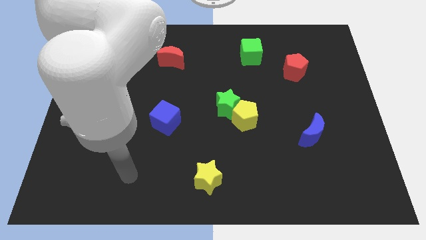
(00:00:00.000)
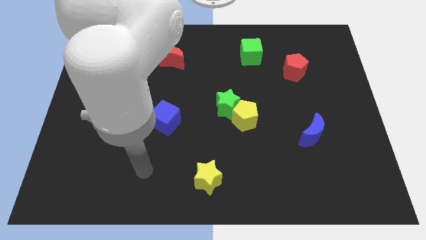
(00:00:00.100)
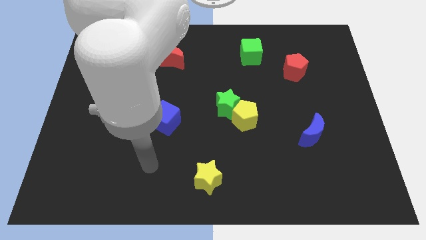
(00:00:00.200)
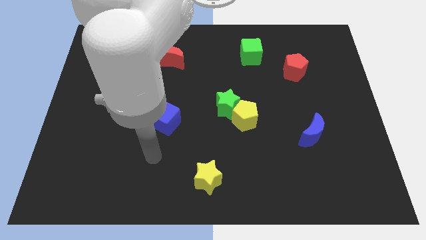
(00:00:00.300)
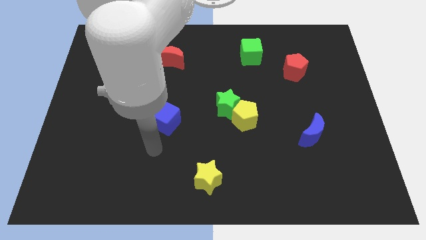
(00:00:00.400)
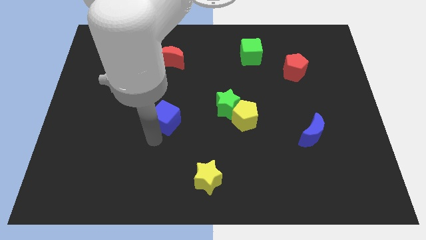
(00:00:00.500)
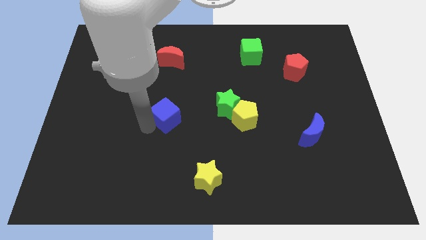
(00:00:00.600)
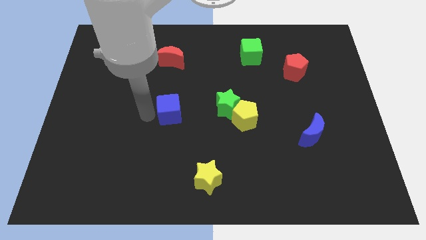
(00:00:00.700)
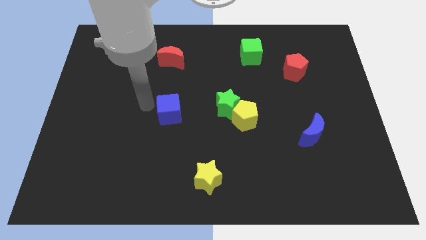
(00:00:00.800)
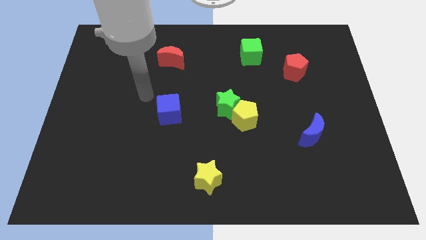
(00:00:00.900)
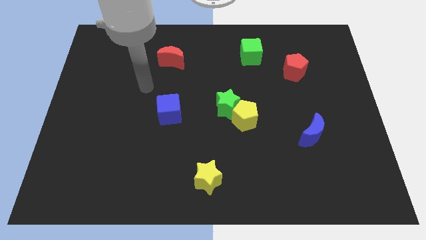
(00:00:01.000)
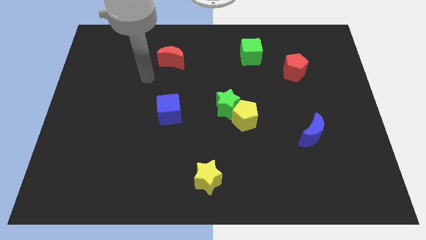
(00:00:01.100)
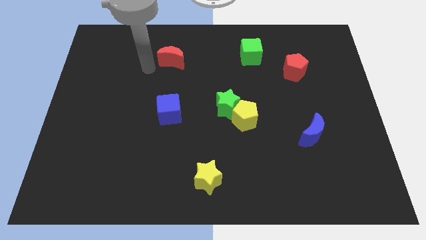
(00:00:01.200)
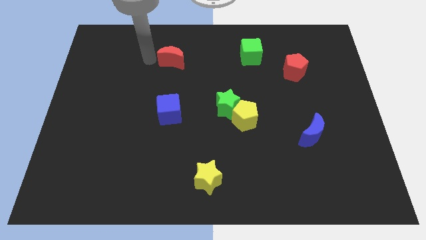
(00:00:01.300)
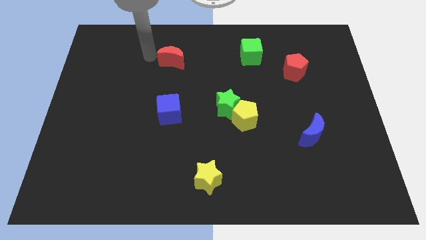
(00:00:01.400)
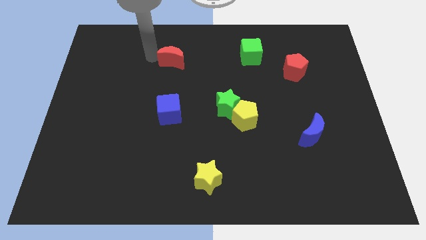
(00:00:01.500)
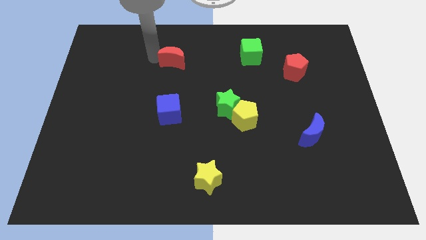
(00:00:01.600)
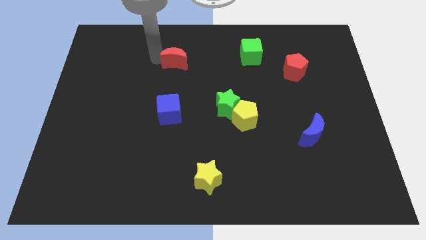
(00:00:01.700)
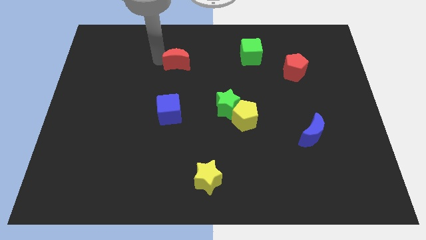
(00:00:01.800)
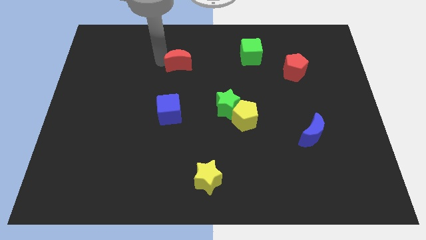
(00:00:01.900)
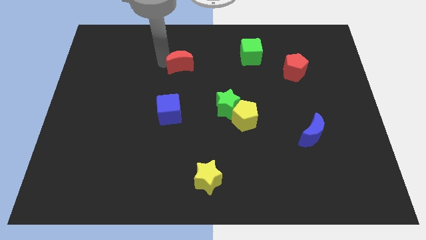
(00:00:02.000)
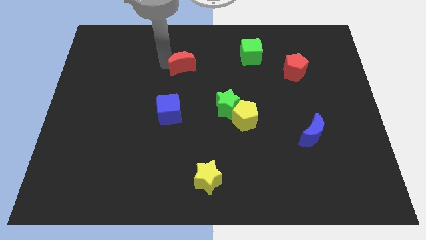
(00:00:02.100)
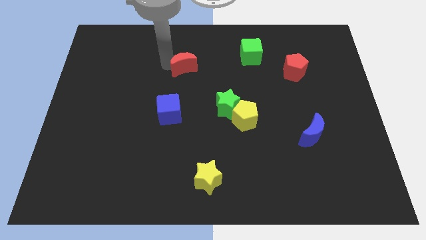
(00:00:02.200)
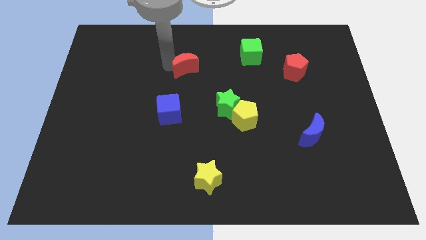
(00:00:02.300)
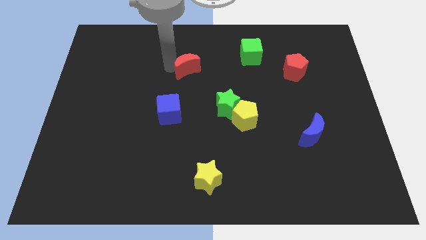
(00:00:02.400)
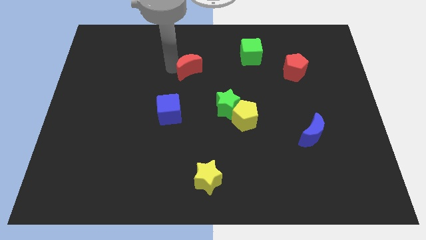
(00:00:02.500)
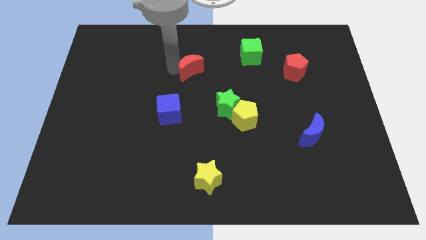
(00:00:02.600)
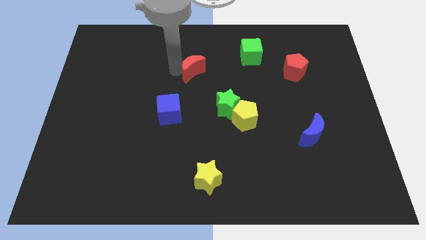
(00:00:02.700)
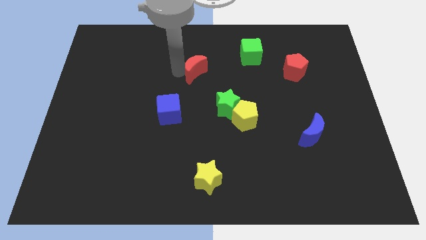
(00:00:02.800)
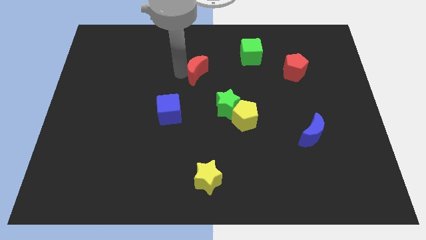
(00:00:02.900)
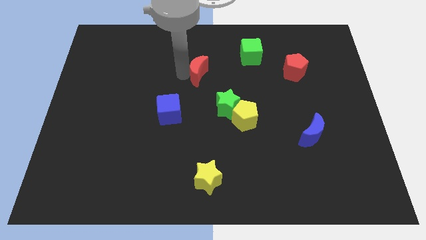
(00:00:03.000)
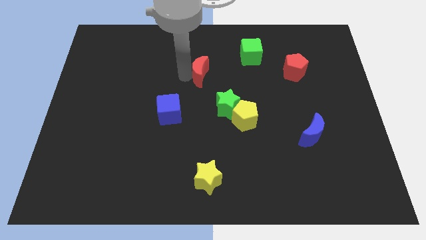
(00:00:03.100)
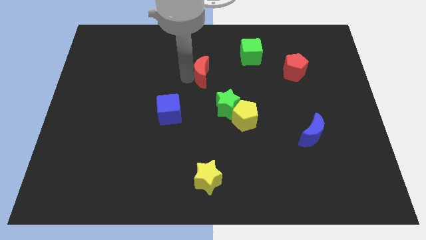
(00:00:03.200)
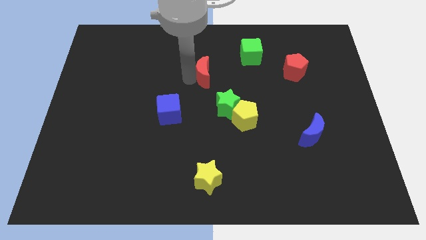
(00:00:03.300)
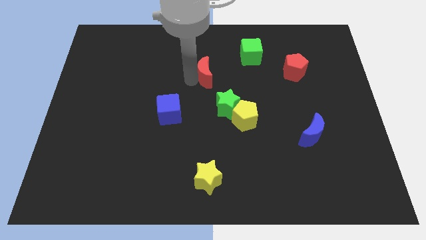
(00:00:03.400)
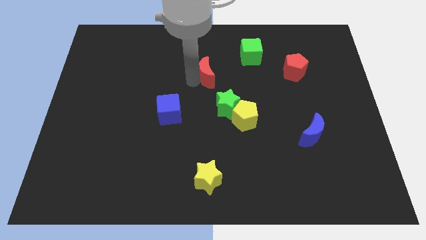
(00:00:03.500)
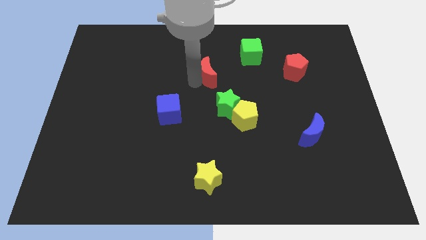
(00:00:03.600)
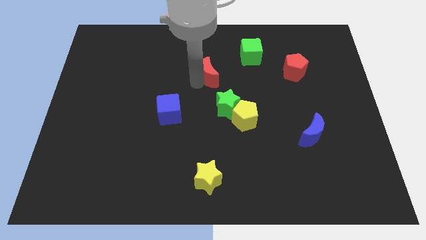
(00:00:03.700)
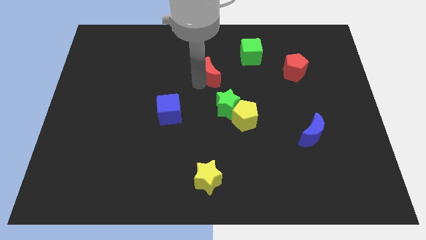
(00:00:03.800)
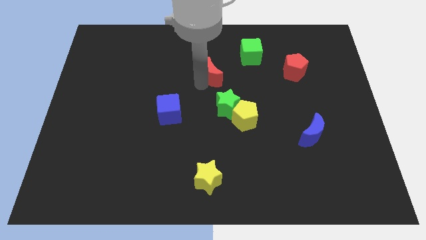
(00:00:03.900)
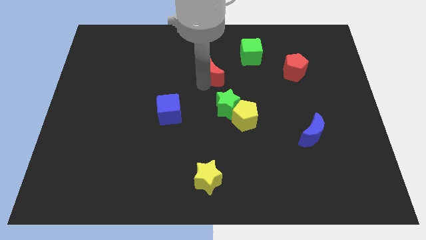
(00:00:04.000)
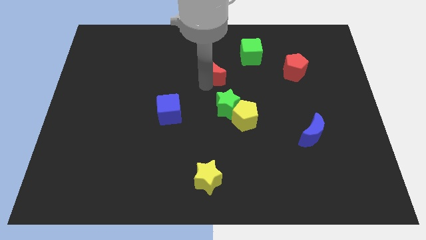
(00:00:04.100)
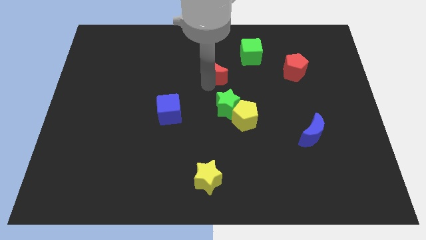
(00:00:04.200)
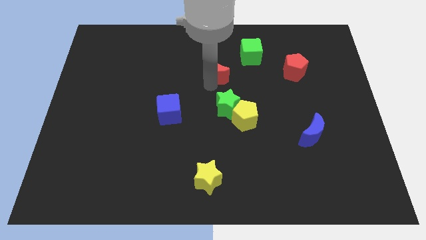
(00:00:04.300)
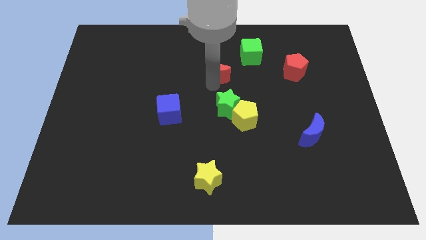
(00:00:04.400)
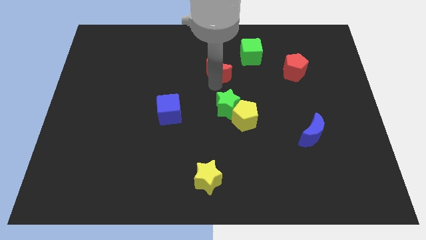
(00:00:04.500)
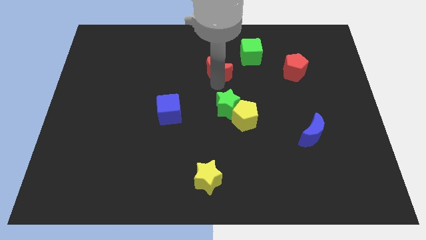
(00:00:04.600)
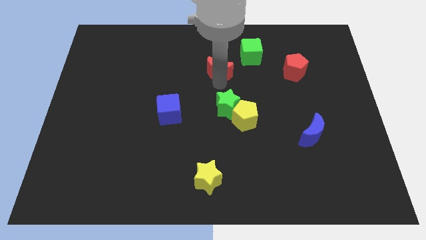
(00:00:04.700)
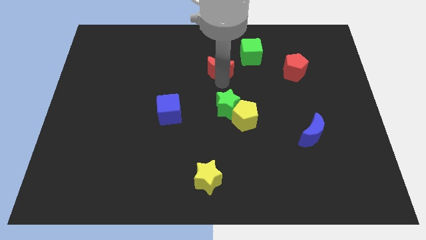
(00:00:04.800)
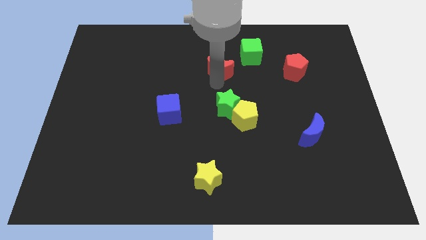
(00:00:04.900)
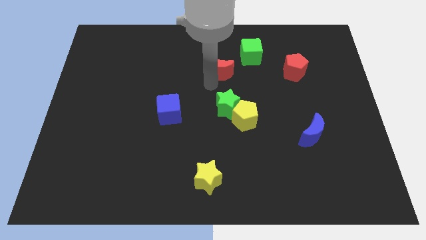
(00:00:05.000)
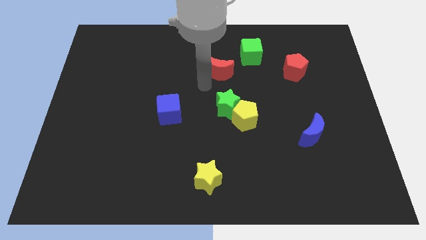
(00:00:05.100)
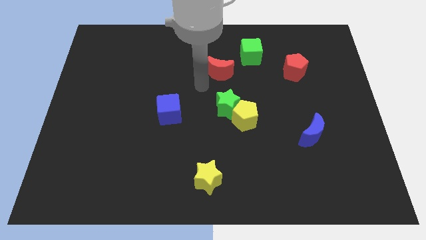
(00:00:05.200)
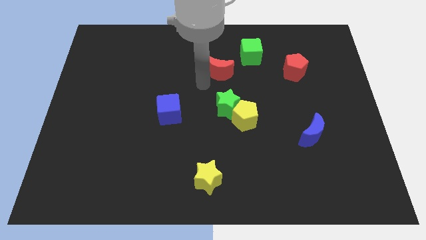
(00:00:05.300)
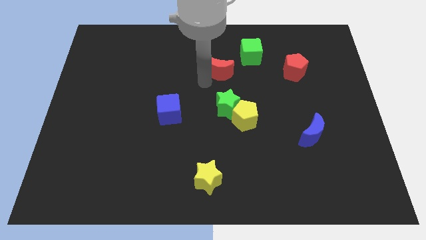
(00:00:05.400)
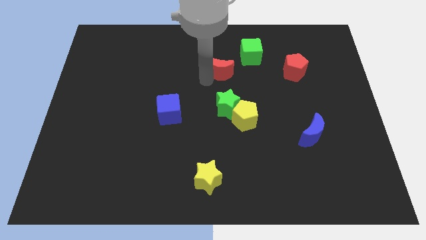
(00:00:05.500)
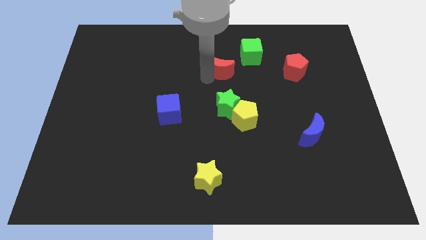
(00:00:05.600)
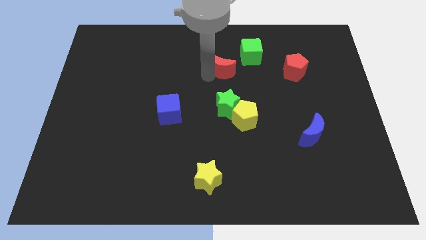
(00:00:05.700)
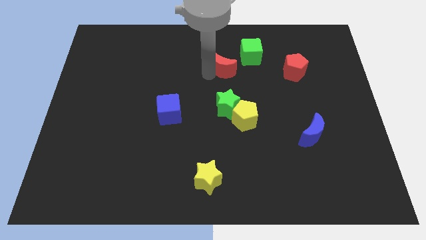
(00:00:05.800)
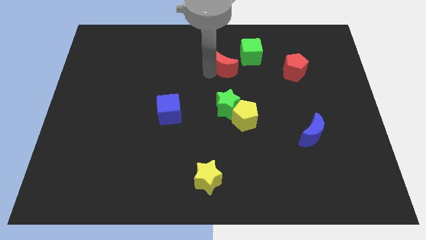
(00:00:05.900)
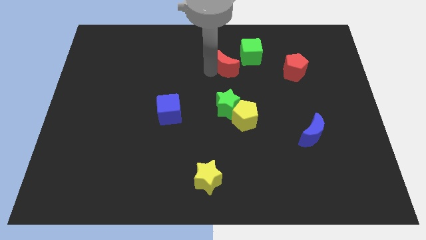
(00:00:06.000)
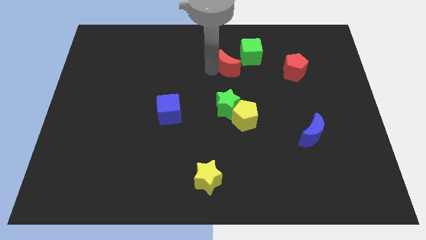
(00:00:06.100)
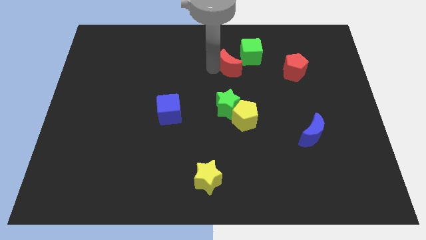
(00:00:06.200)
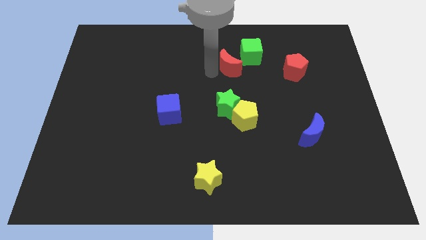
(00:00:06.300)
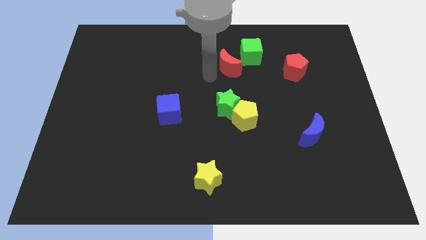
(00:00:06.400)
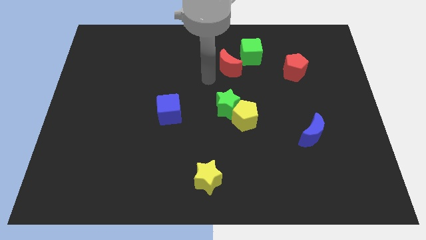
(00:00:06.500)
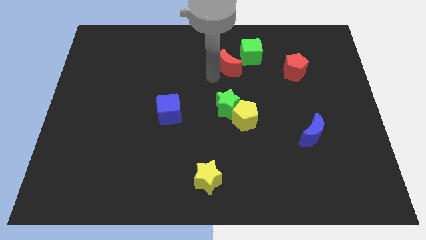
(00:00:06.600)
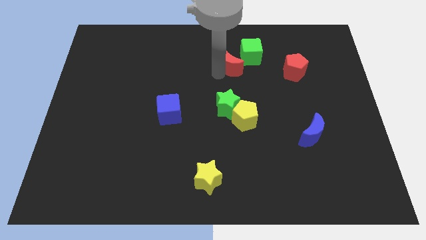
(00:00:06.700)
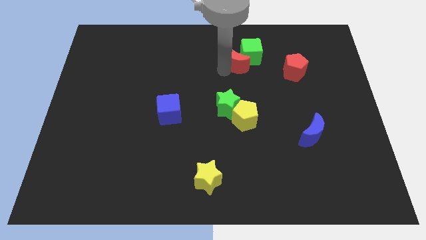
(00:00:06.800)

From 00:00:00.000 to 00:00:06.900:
push the red moon close to the green cube
